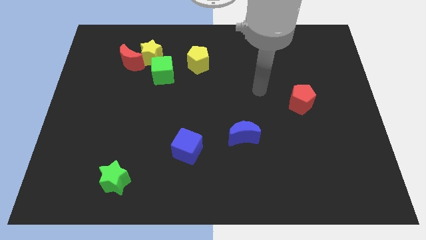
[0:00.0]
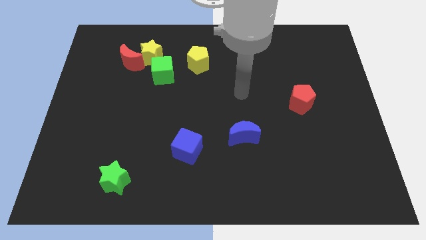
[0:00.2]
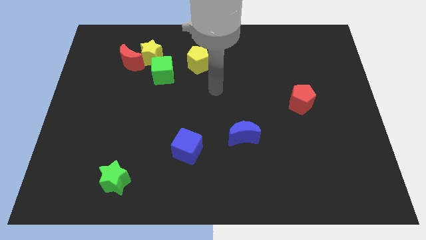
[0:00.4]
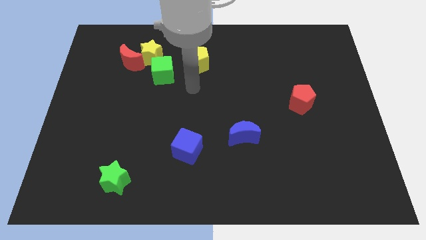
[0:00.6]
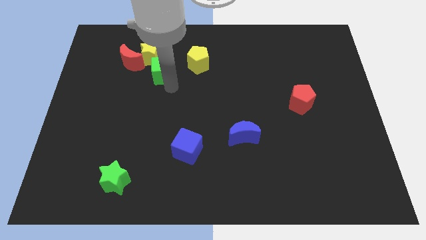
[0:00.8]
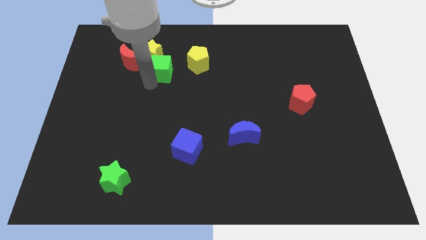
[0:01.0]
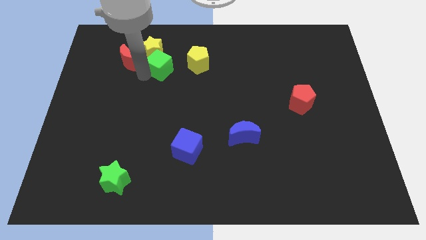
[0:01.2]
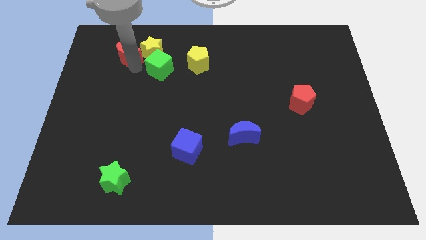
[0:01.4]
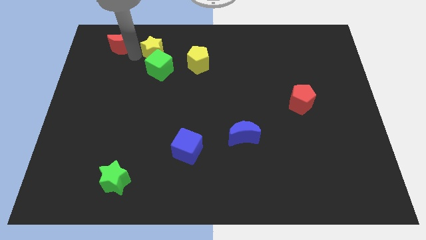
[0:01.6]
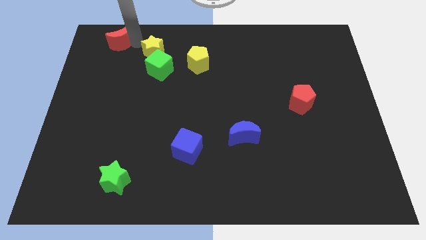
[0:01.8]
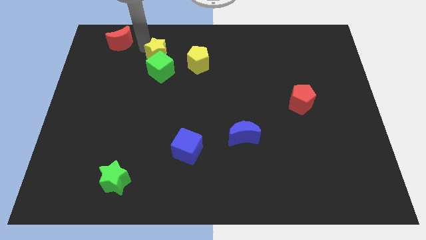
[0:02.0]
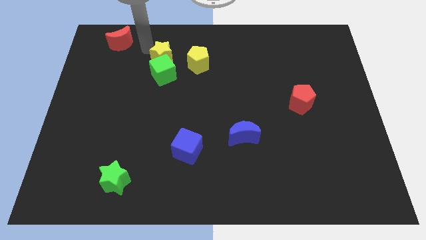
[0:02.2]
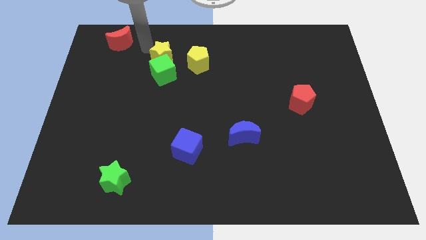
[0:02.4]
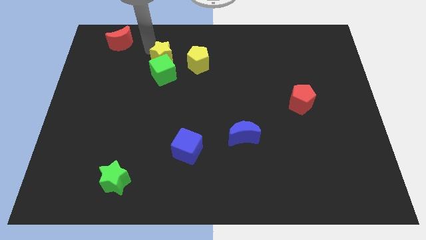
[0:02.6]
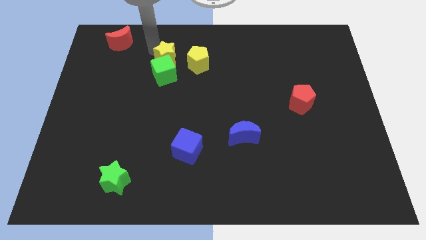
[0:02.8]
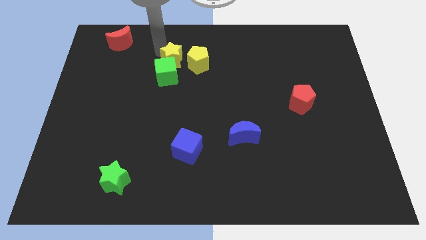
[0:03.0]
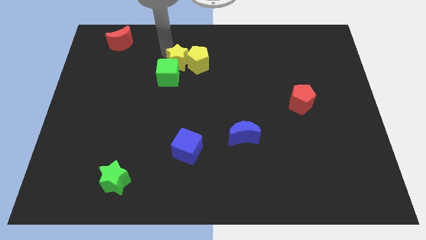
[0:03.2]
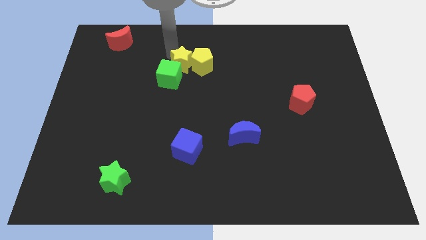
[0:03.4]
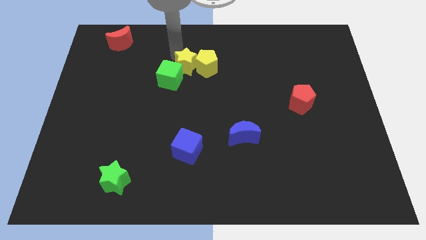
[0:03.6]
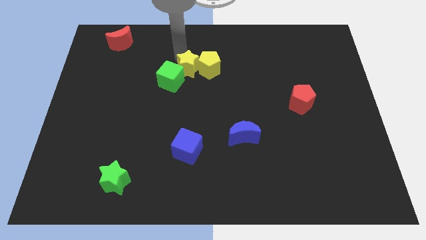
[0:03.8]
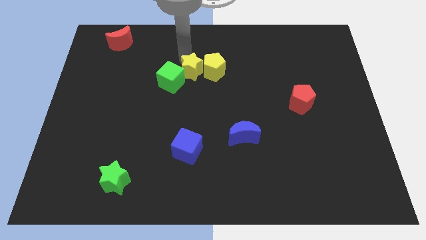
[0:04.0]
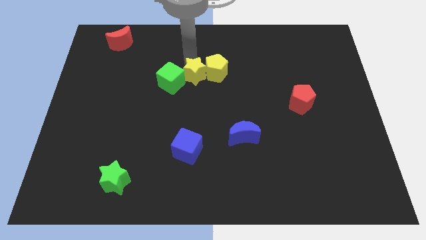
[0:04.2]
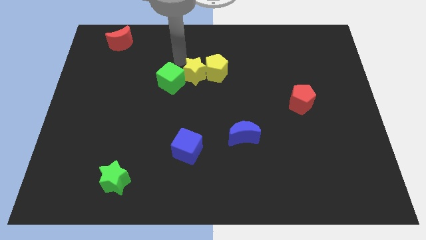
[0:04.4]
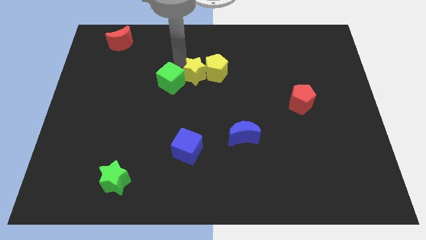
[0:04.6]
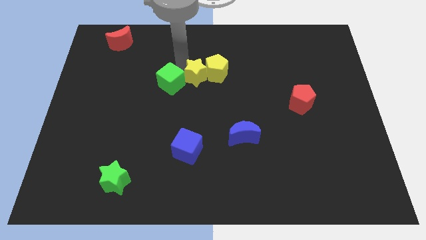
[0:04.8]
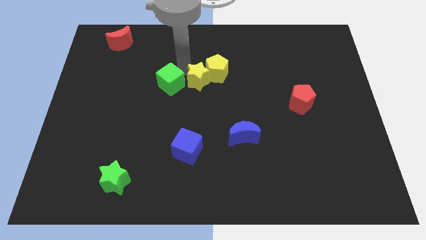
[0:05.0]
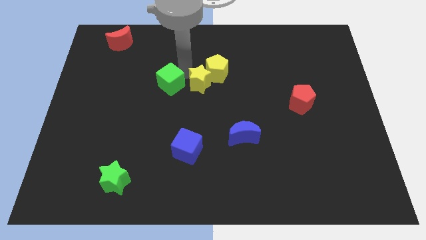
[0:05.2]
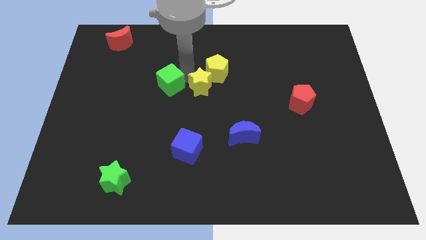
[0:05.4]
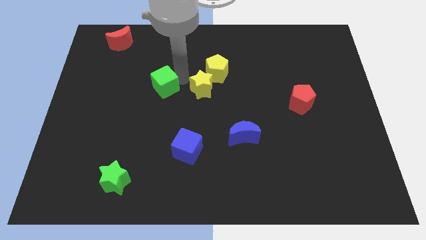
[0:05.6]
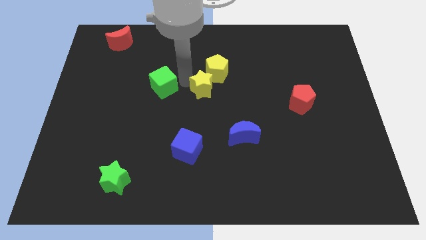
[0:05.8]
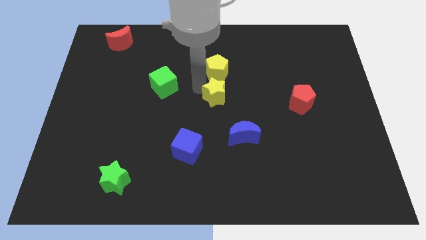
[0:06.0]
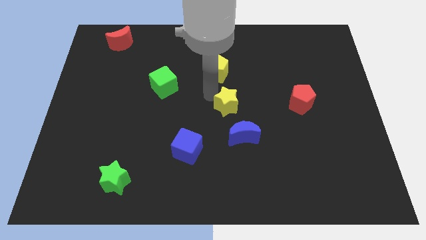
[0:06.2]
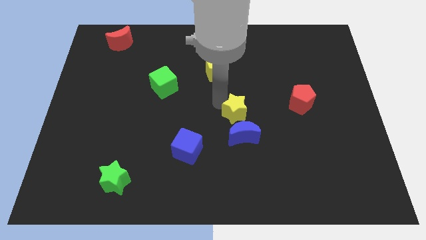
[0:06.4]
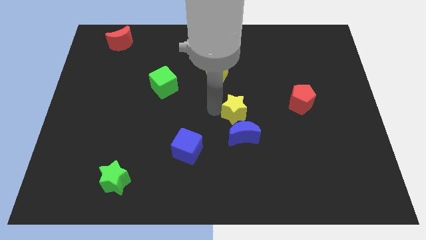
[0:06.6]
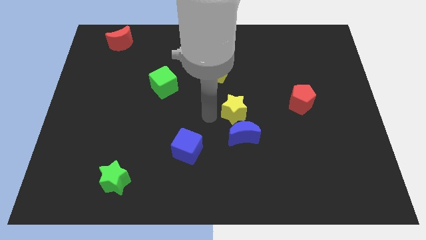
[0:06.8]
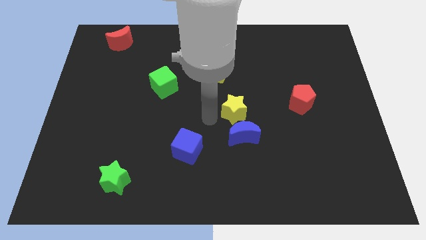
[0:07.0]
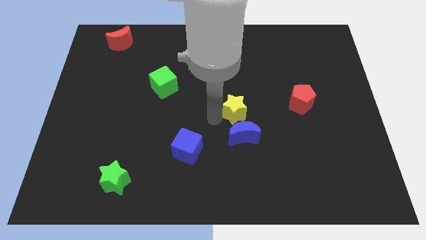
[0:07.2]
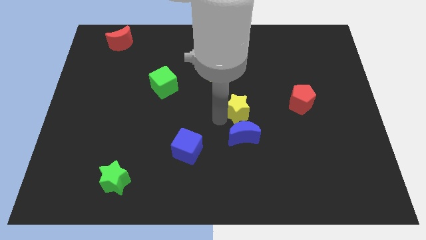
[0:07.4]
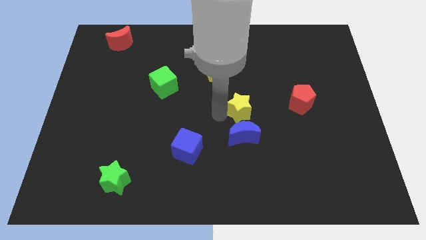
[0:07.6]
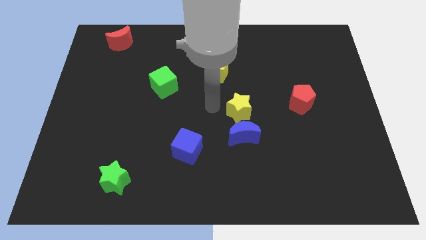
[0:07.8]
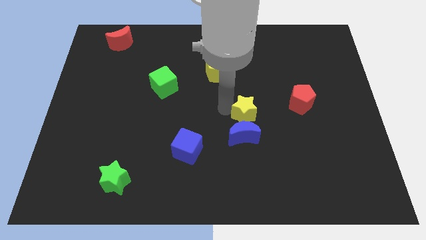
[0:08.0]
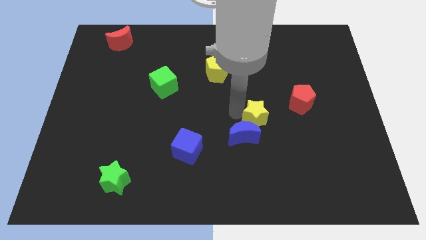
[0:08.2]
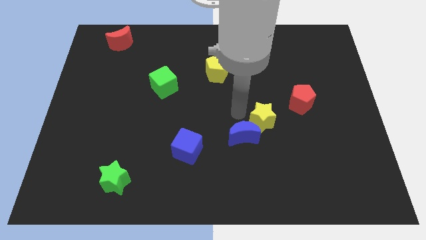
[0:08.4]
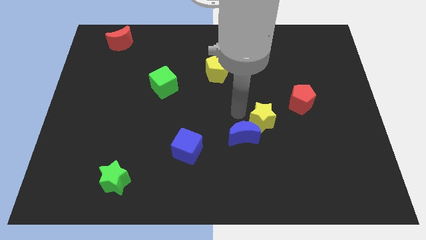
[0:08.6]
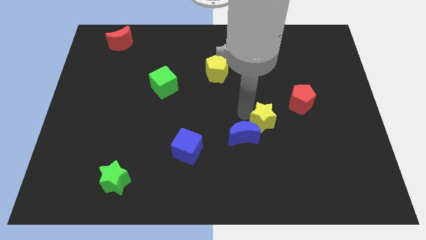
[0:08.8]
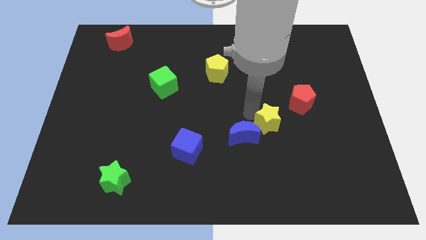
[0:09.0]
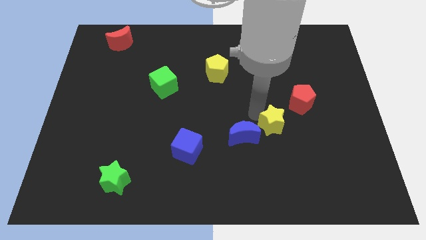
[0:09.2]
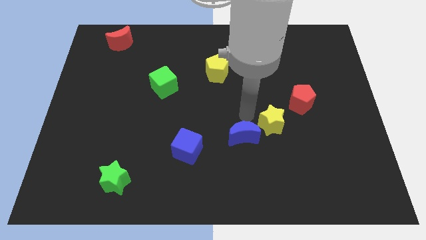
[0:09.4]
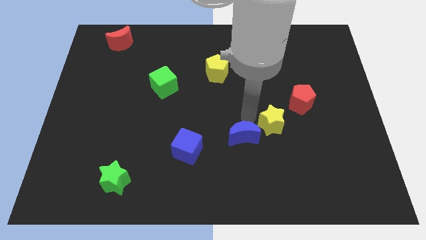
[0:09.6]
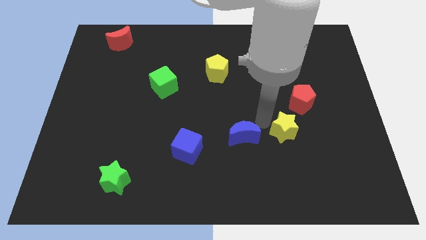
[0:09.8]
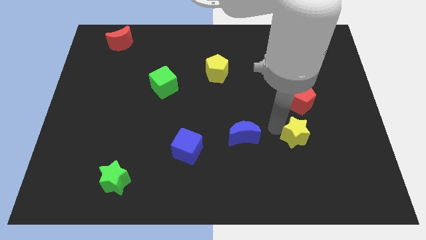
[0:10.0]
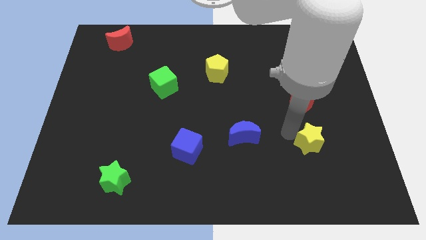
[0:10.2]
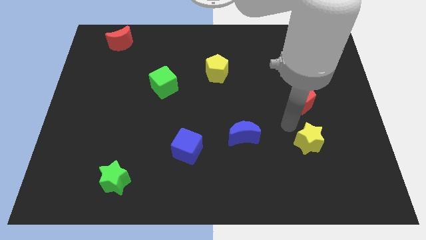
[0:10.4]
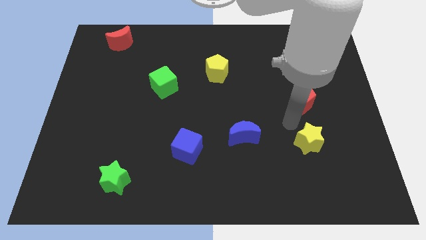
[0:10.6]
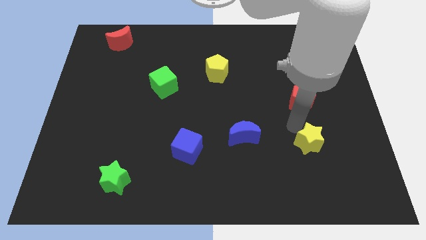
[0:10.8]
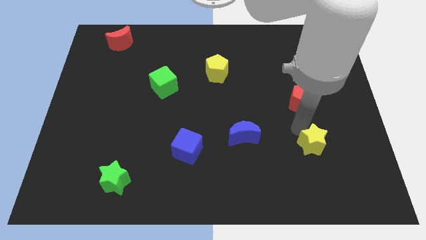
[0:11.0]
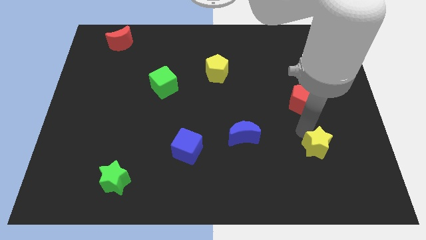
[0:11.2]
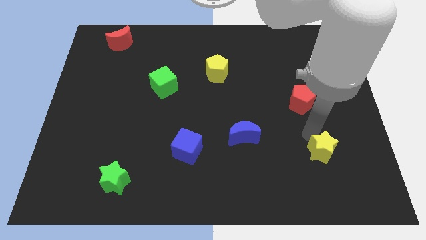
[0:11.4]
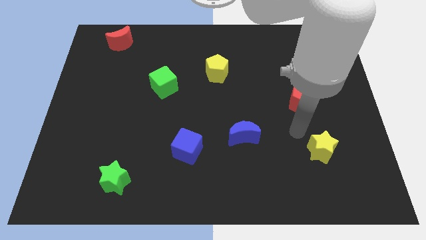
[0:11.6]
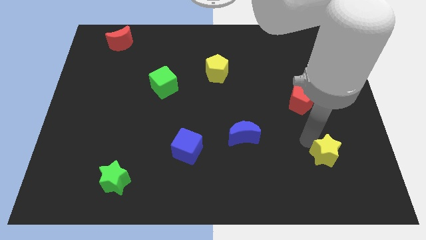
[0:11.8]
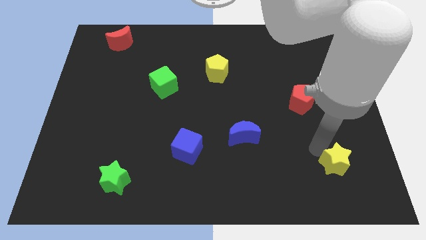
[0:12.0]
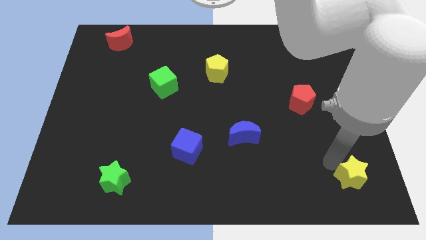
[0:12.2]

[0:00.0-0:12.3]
put the yellow star to the bottom right

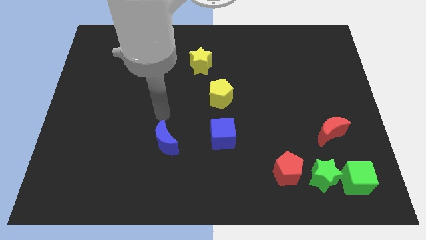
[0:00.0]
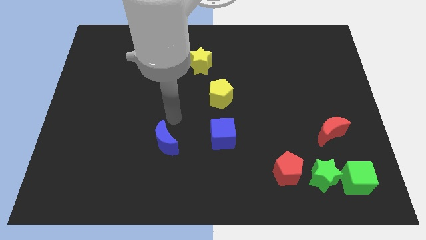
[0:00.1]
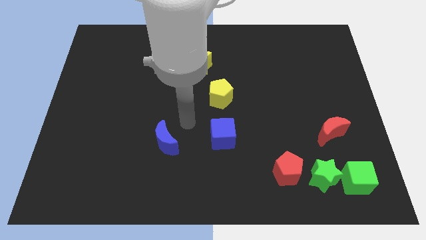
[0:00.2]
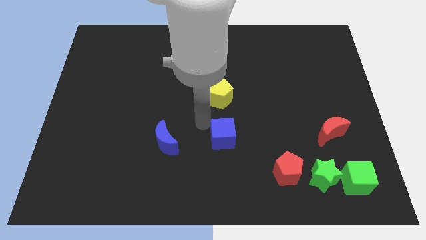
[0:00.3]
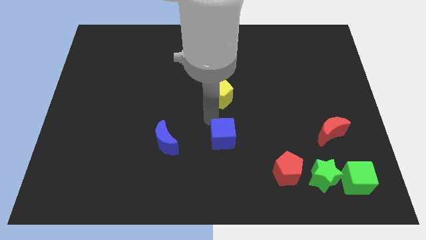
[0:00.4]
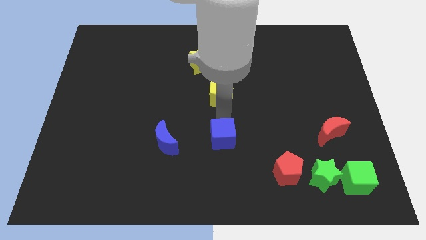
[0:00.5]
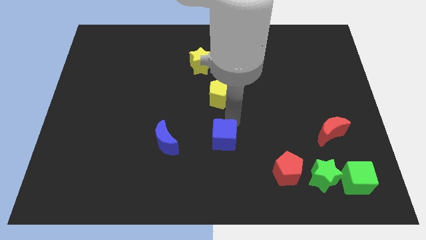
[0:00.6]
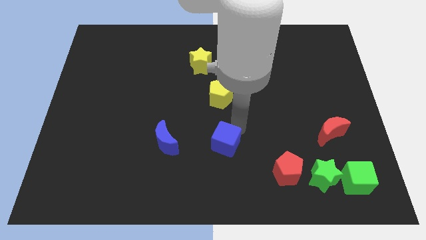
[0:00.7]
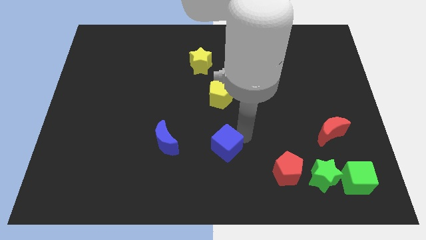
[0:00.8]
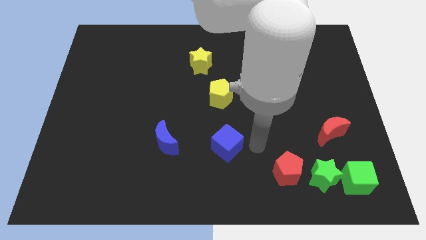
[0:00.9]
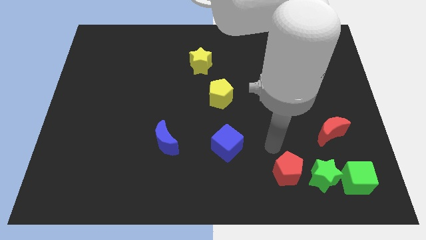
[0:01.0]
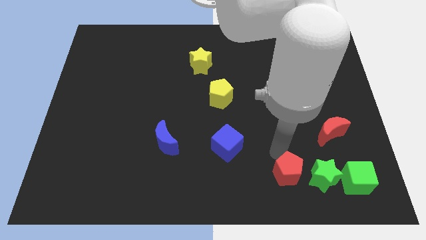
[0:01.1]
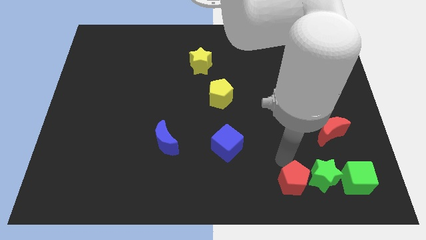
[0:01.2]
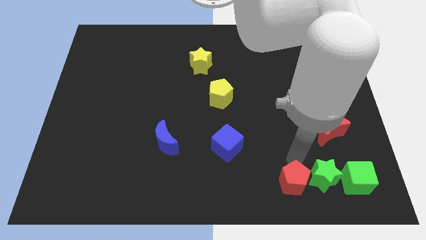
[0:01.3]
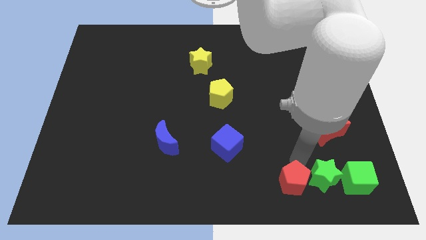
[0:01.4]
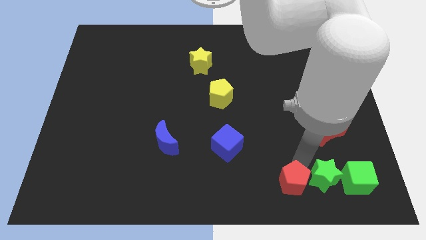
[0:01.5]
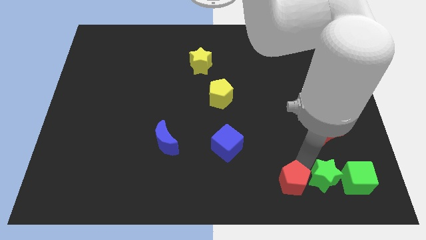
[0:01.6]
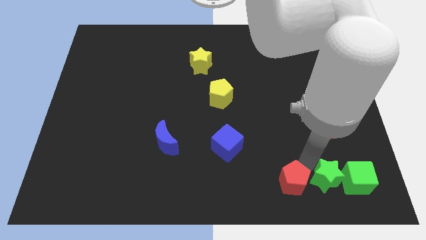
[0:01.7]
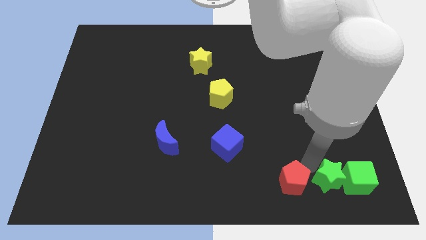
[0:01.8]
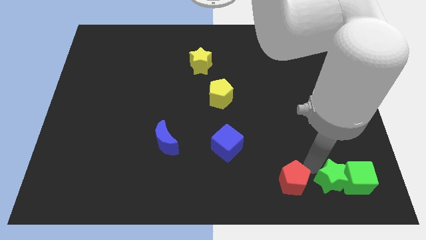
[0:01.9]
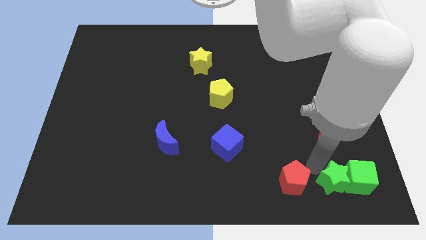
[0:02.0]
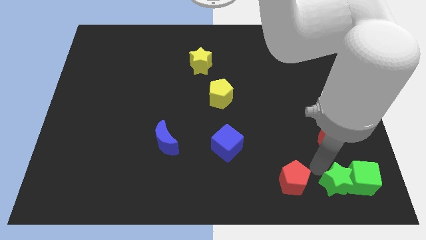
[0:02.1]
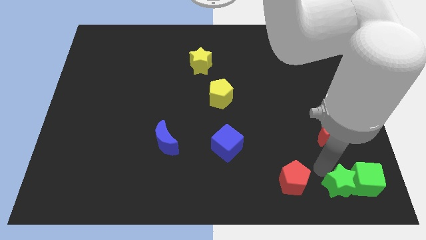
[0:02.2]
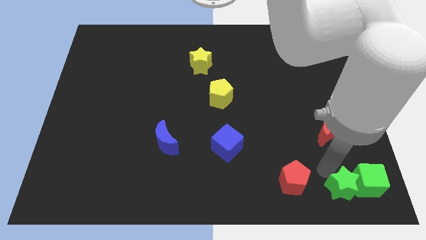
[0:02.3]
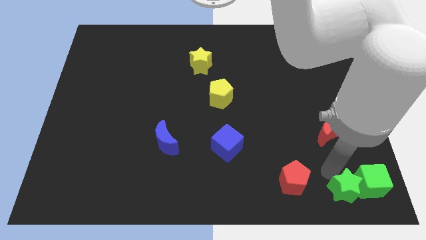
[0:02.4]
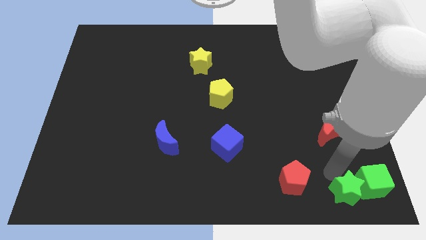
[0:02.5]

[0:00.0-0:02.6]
slide the green star to the lower right corner
